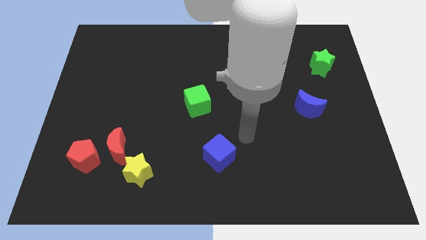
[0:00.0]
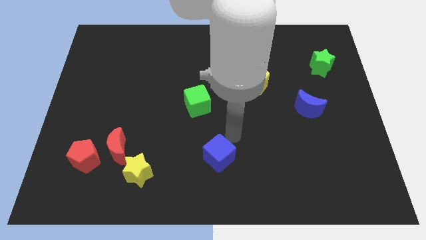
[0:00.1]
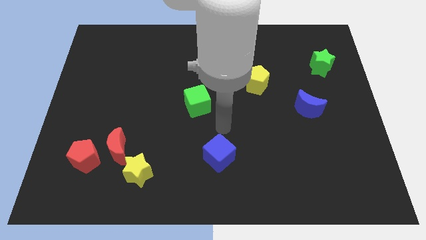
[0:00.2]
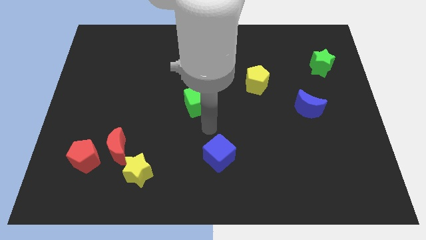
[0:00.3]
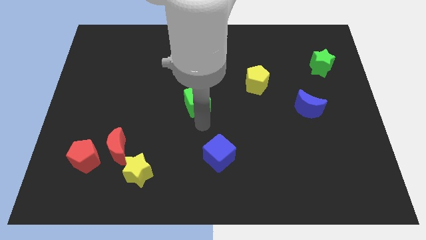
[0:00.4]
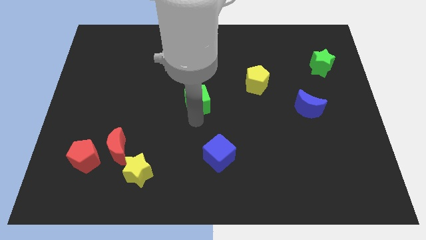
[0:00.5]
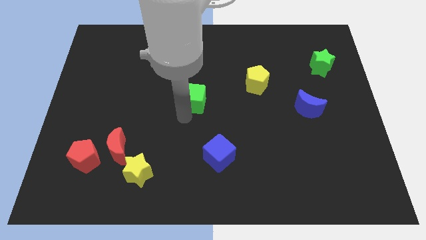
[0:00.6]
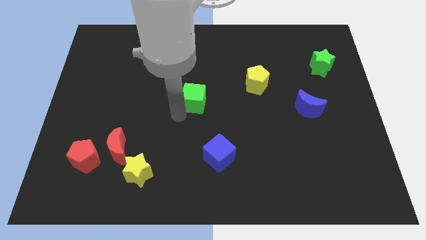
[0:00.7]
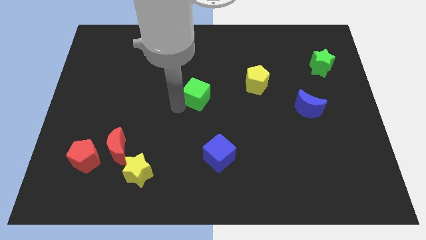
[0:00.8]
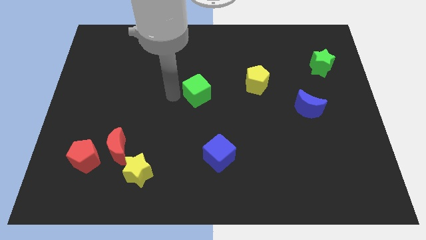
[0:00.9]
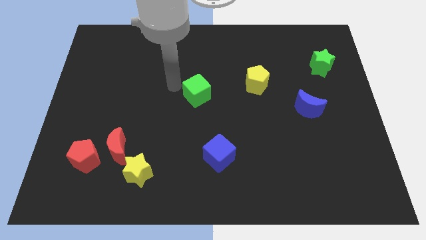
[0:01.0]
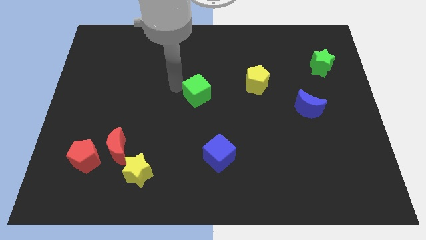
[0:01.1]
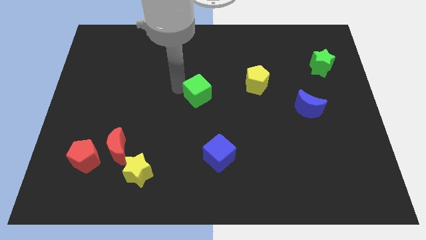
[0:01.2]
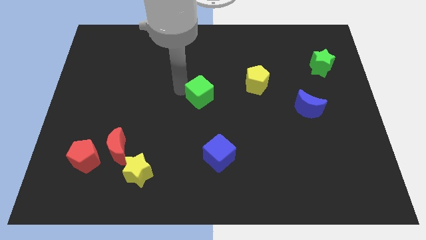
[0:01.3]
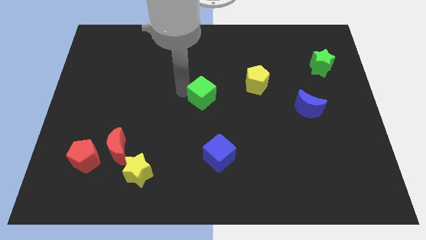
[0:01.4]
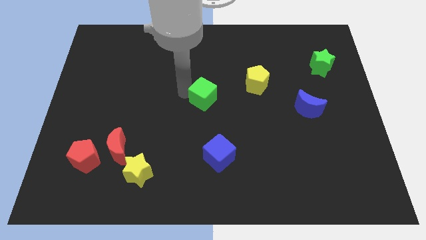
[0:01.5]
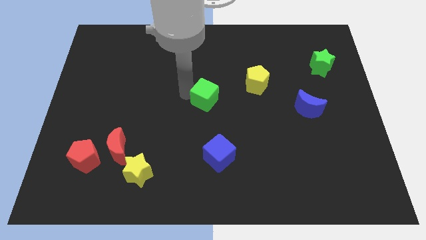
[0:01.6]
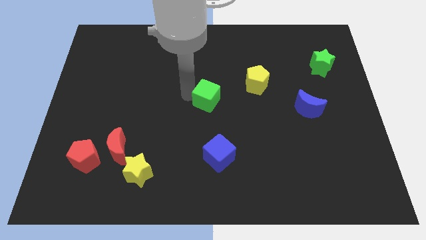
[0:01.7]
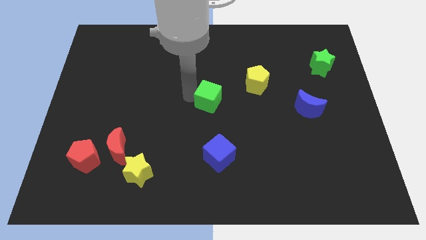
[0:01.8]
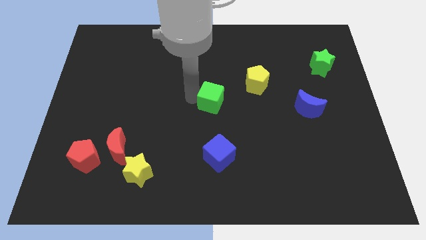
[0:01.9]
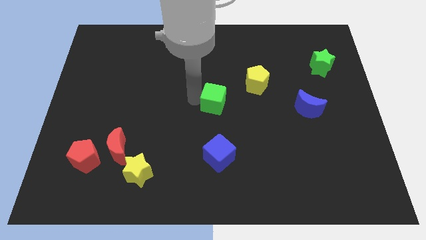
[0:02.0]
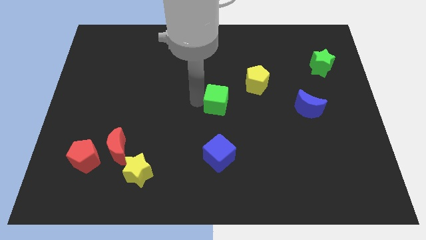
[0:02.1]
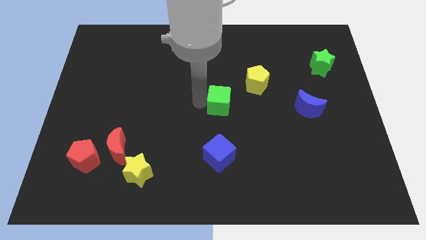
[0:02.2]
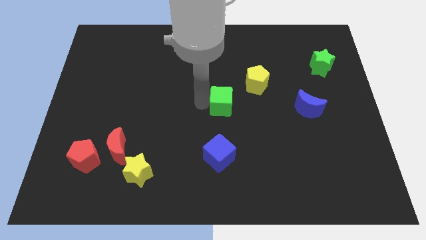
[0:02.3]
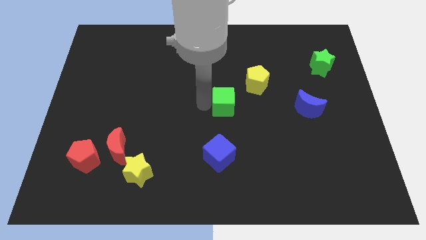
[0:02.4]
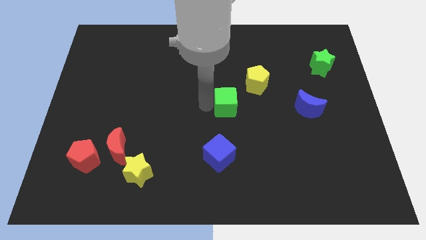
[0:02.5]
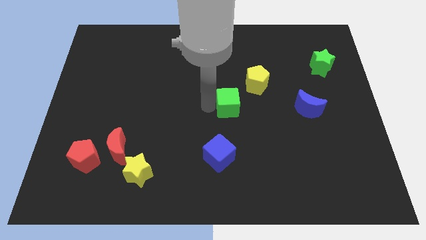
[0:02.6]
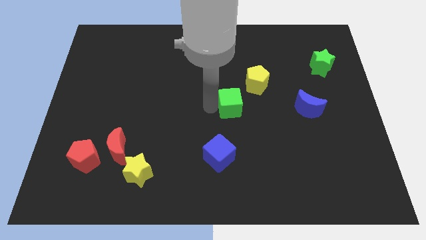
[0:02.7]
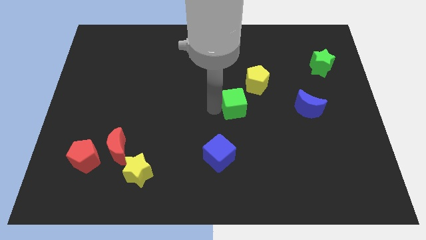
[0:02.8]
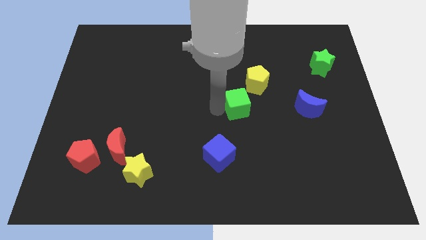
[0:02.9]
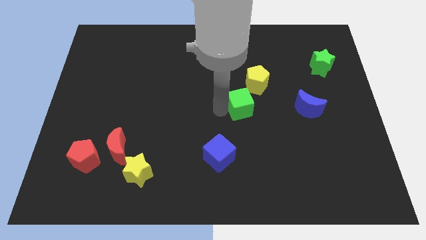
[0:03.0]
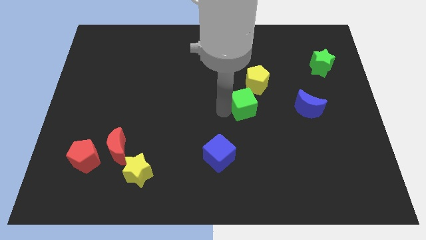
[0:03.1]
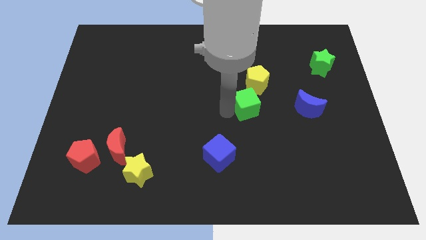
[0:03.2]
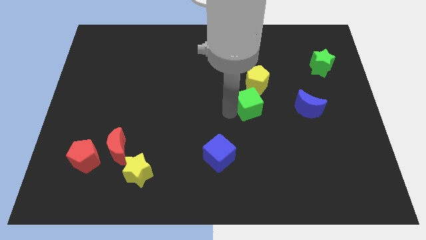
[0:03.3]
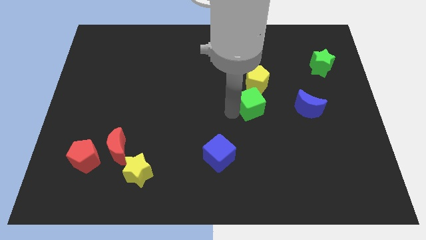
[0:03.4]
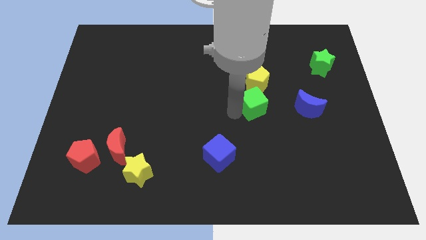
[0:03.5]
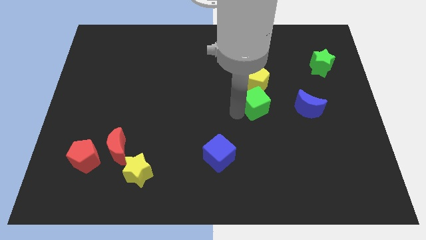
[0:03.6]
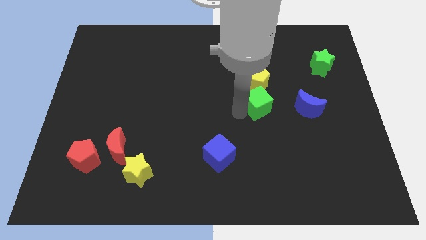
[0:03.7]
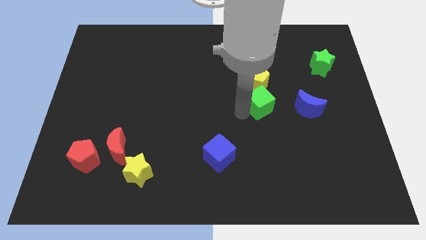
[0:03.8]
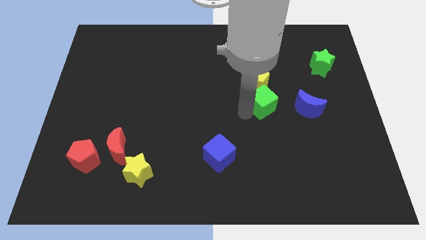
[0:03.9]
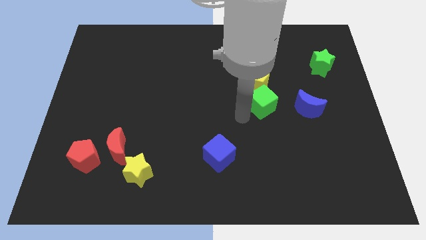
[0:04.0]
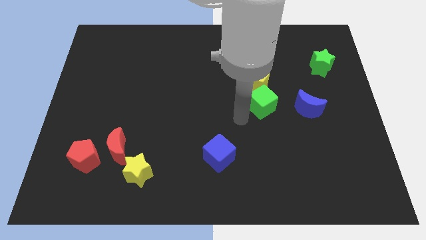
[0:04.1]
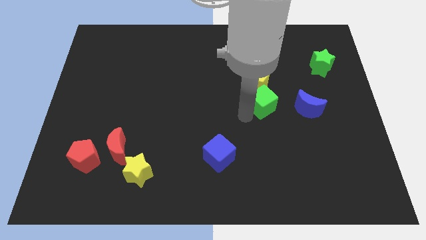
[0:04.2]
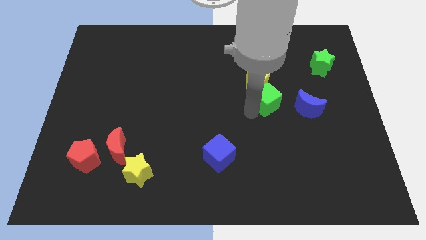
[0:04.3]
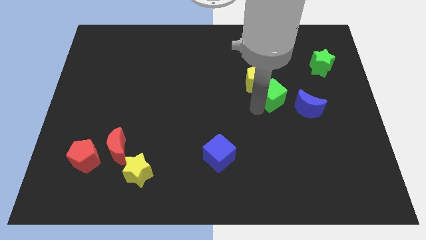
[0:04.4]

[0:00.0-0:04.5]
slide the green cube to the top left of the blue moon

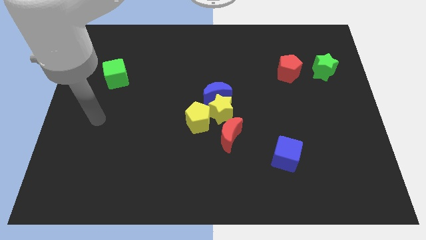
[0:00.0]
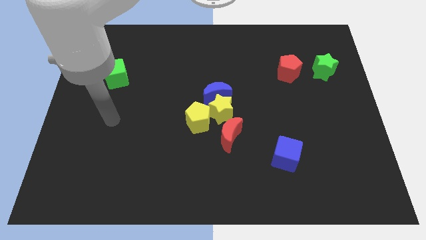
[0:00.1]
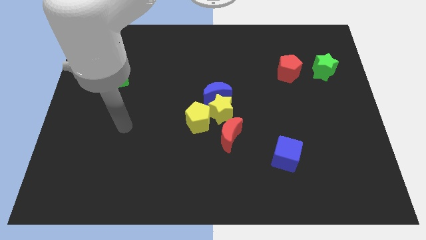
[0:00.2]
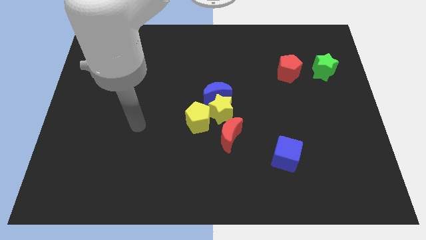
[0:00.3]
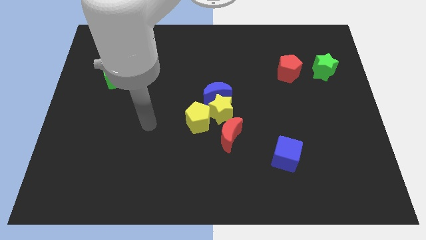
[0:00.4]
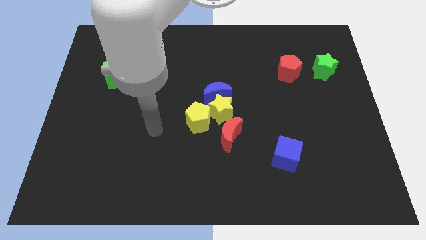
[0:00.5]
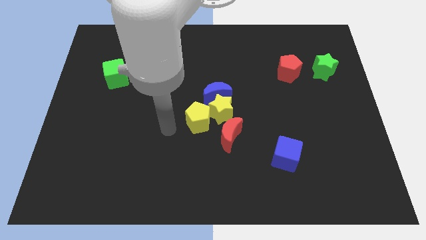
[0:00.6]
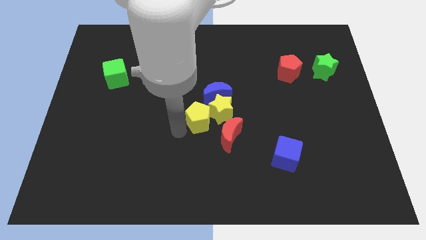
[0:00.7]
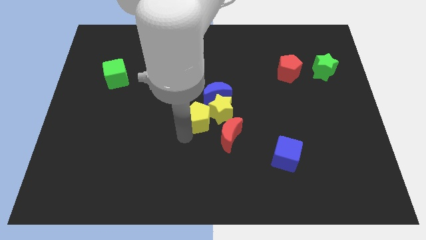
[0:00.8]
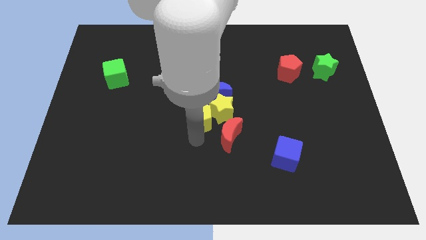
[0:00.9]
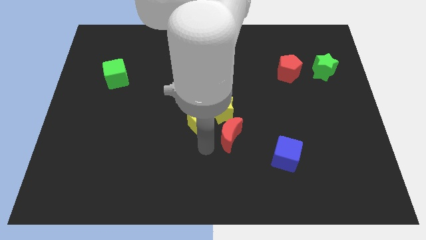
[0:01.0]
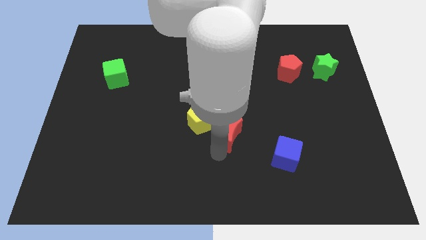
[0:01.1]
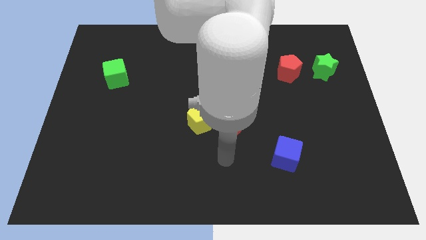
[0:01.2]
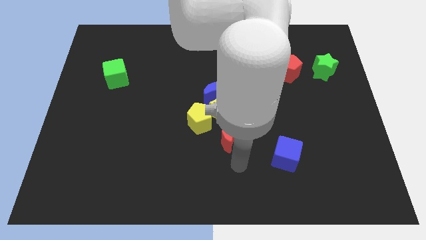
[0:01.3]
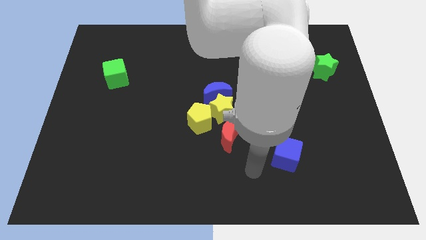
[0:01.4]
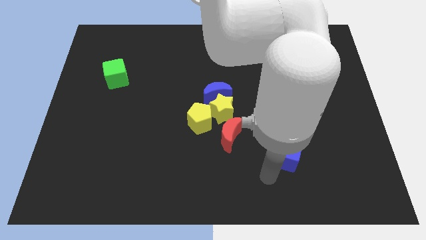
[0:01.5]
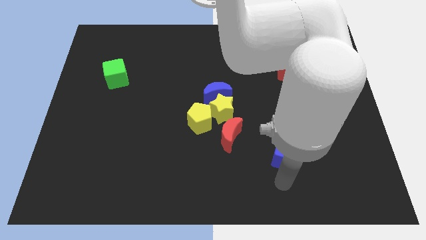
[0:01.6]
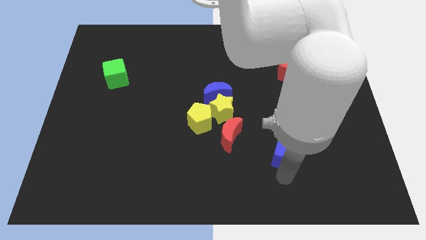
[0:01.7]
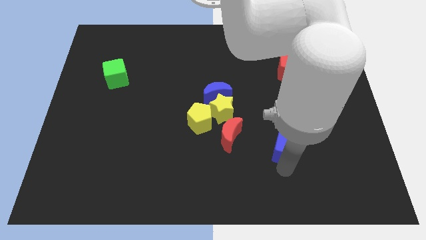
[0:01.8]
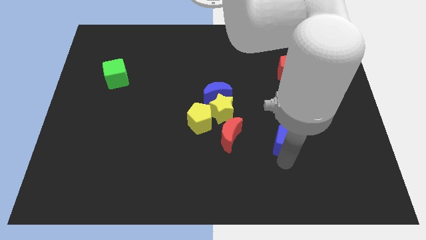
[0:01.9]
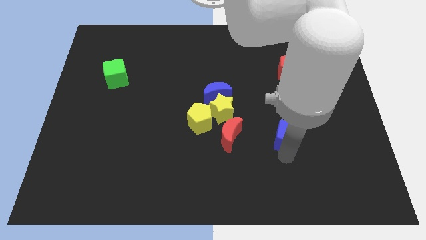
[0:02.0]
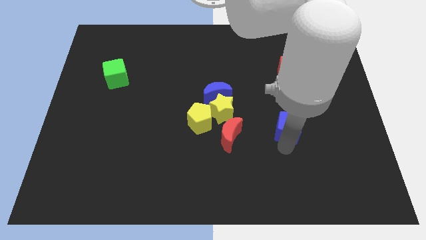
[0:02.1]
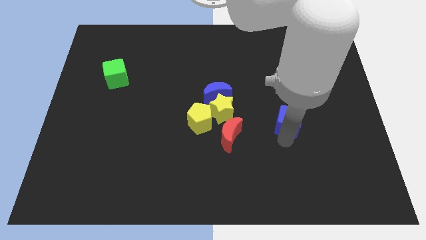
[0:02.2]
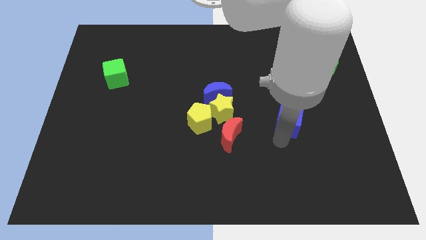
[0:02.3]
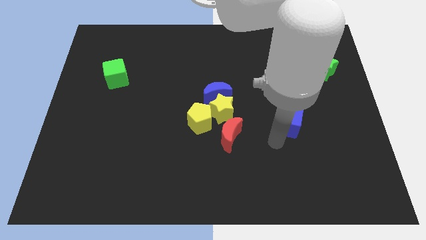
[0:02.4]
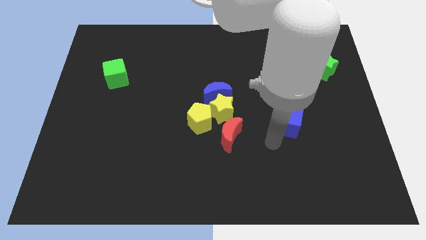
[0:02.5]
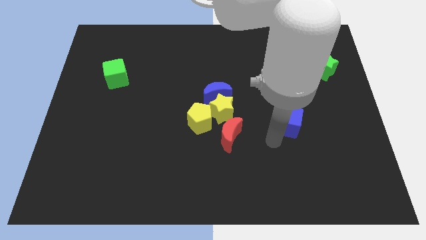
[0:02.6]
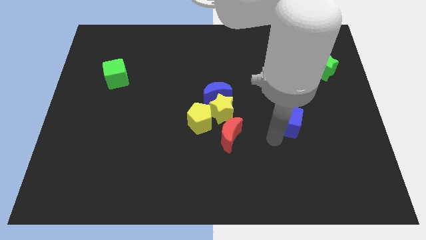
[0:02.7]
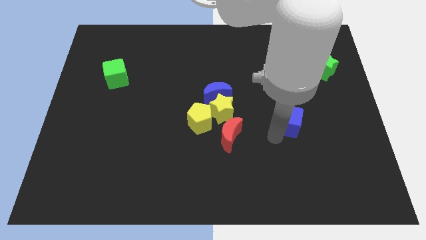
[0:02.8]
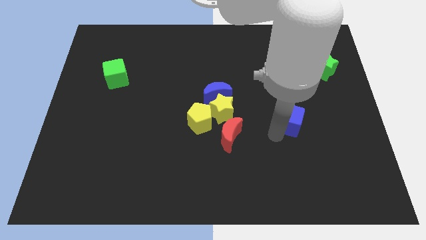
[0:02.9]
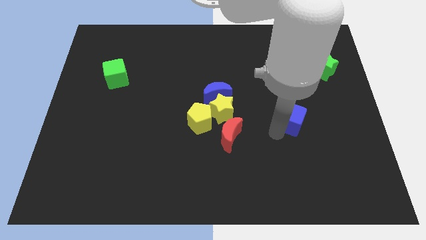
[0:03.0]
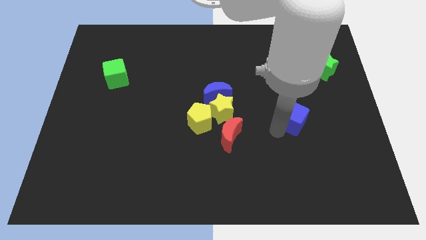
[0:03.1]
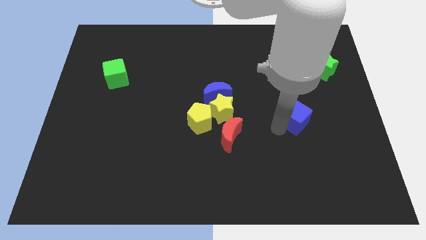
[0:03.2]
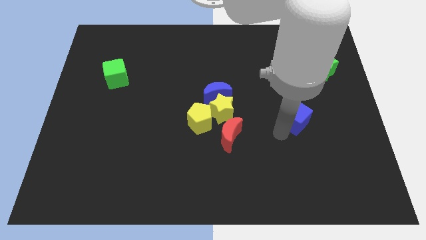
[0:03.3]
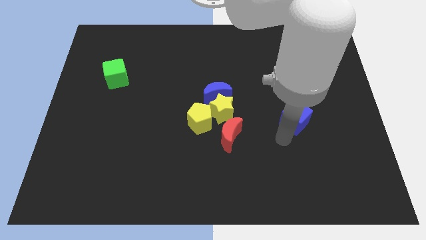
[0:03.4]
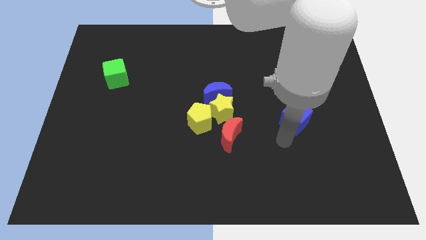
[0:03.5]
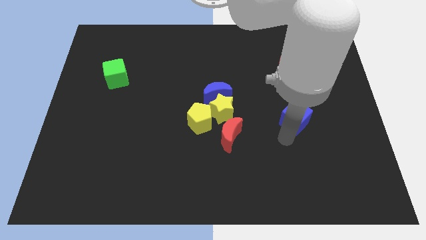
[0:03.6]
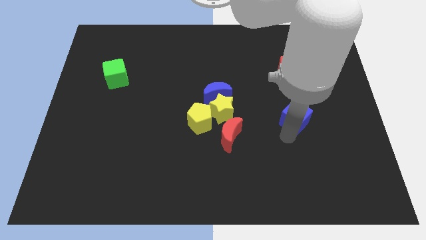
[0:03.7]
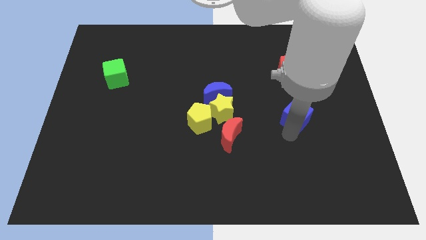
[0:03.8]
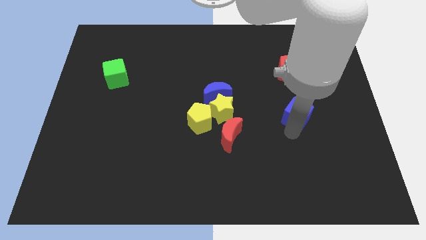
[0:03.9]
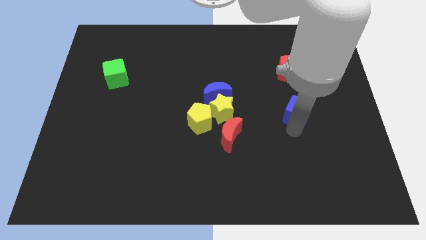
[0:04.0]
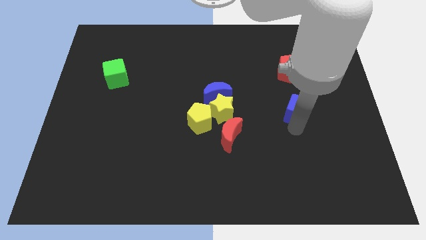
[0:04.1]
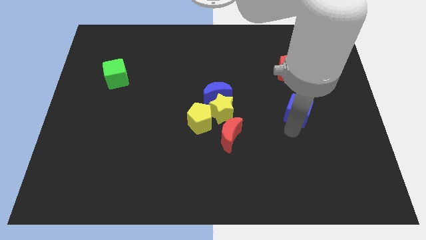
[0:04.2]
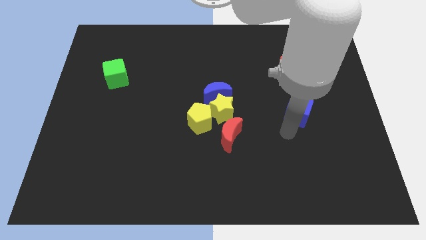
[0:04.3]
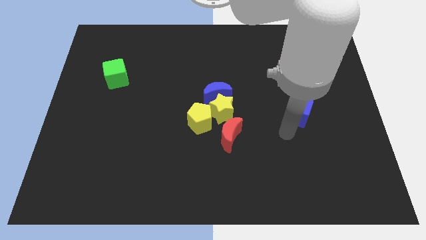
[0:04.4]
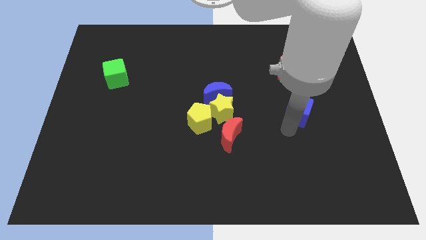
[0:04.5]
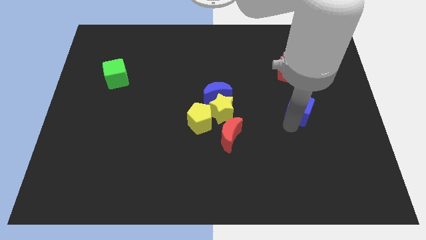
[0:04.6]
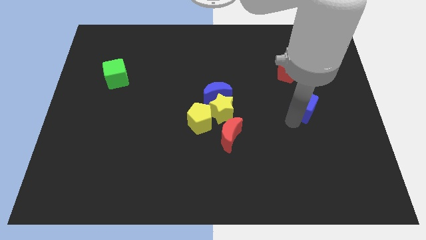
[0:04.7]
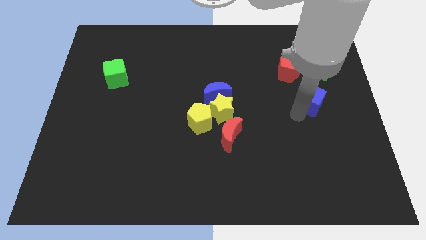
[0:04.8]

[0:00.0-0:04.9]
push the blue cube diagonally down and to the right of the red pentagon
